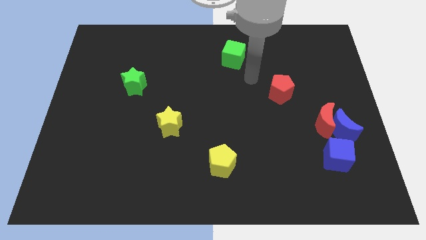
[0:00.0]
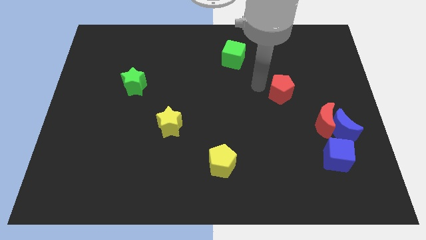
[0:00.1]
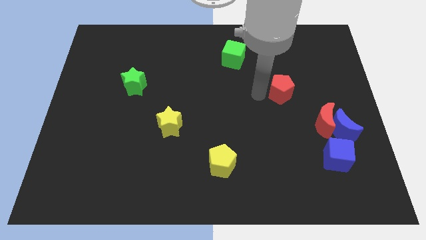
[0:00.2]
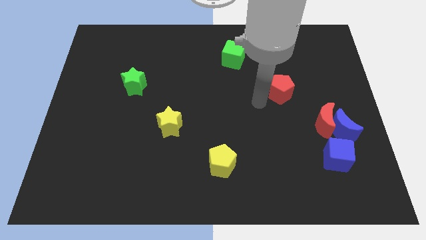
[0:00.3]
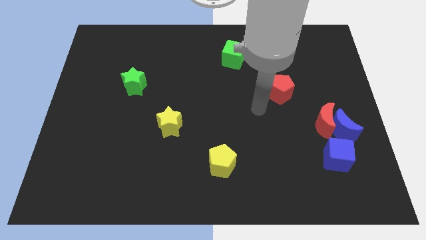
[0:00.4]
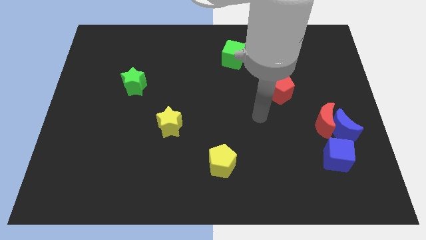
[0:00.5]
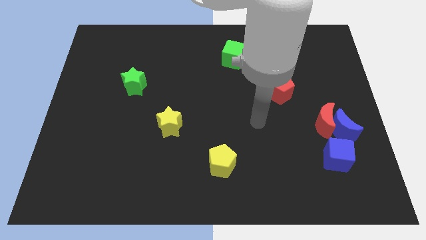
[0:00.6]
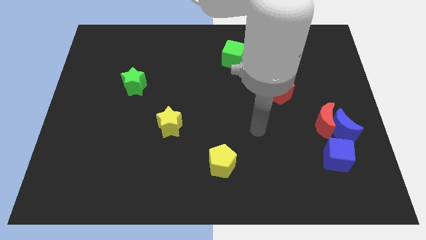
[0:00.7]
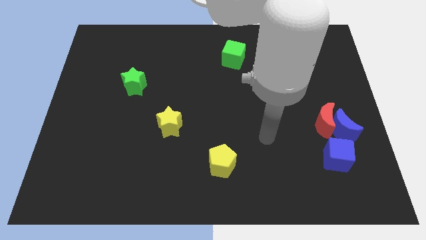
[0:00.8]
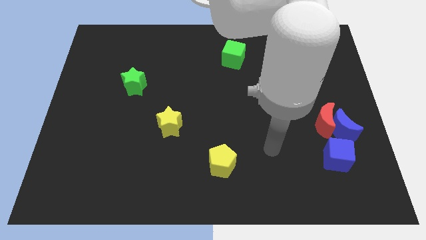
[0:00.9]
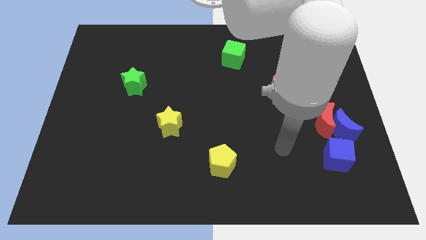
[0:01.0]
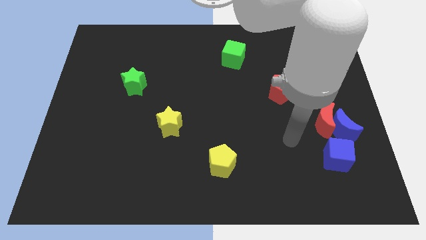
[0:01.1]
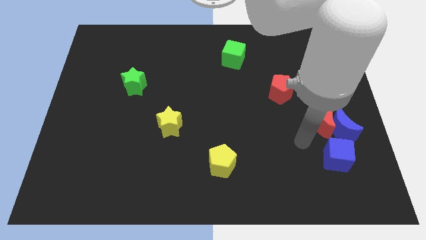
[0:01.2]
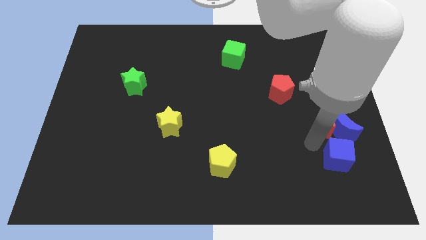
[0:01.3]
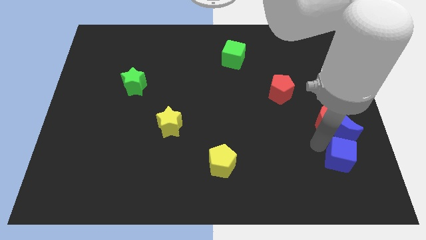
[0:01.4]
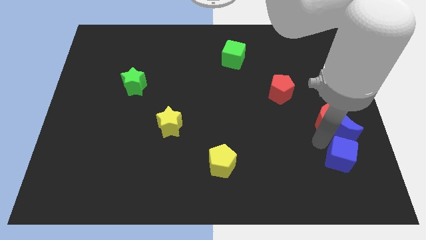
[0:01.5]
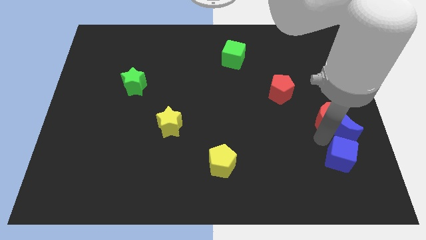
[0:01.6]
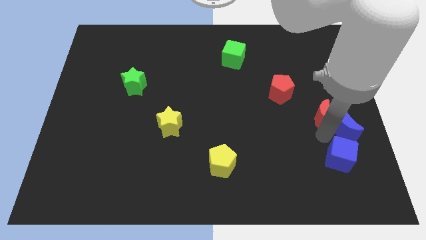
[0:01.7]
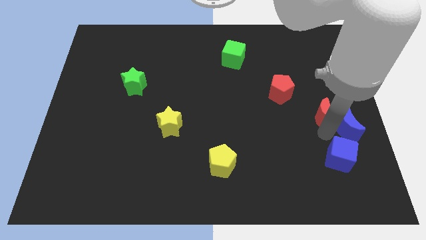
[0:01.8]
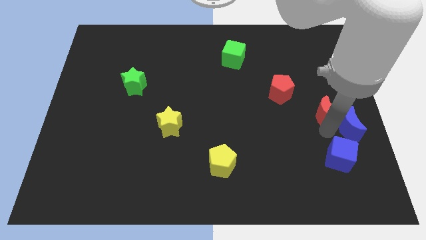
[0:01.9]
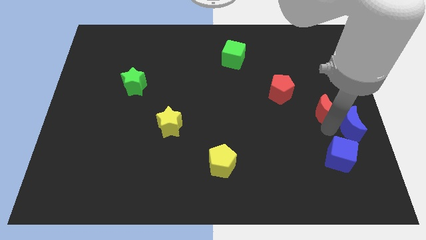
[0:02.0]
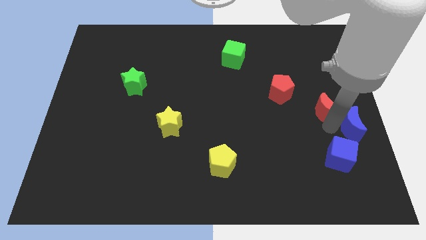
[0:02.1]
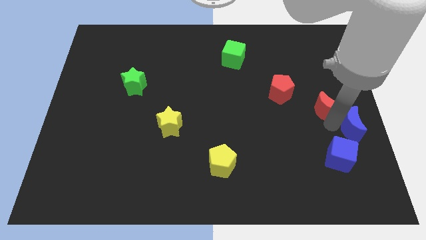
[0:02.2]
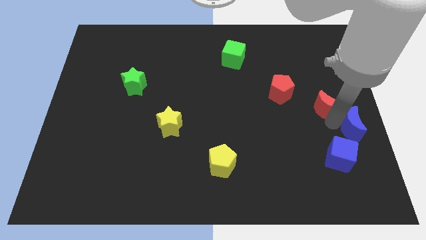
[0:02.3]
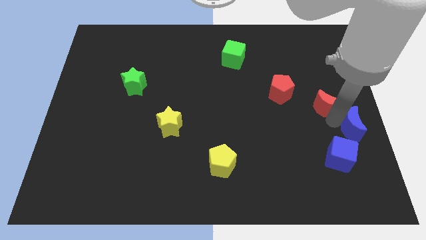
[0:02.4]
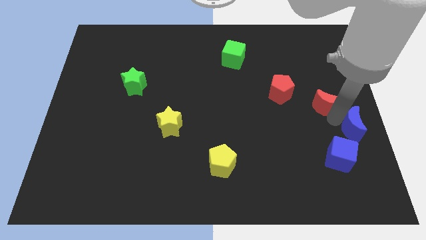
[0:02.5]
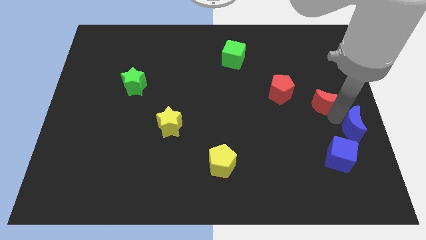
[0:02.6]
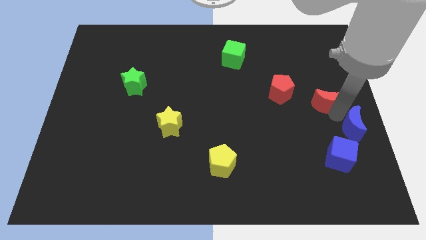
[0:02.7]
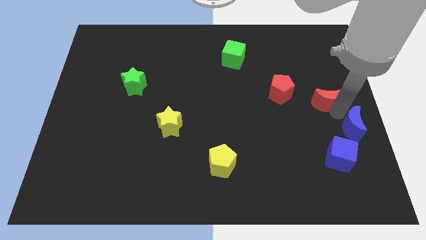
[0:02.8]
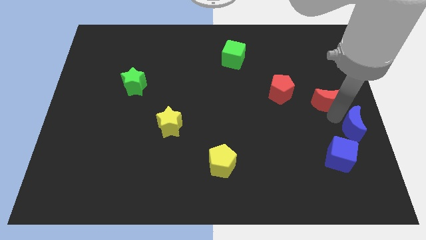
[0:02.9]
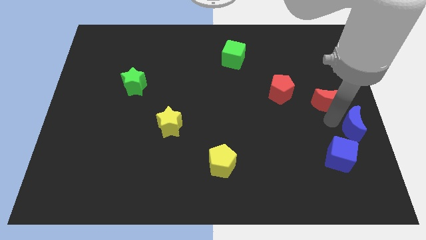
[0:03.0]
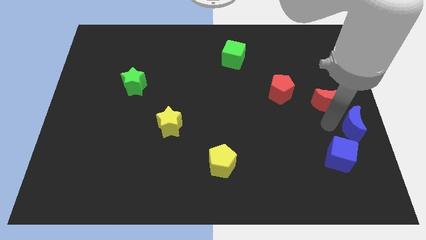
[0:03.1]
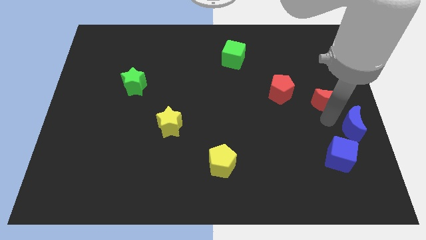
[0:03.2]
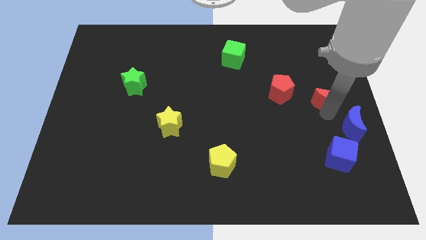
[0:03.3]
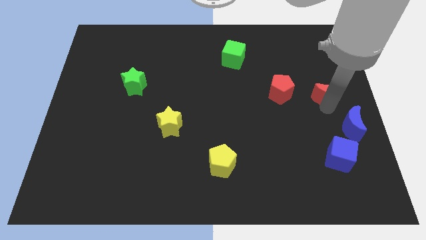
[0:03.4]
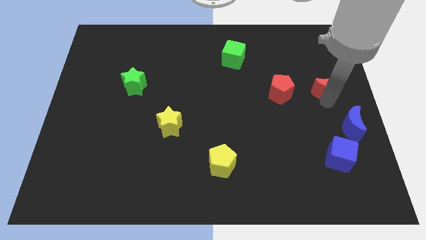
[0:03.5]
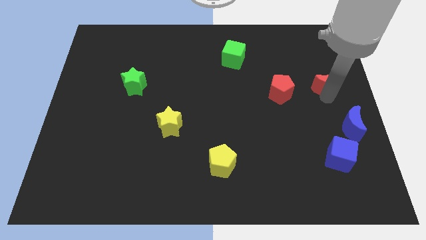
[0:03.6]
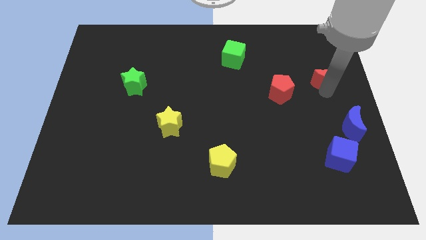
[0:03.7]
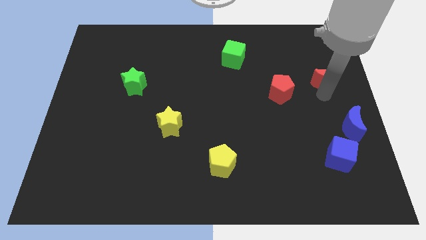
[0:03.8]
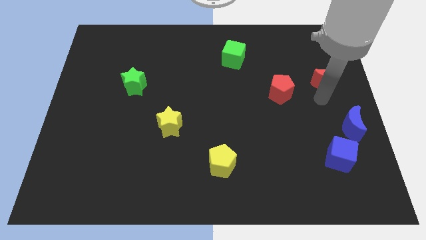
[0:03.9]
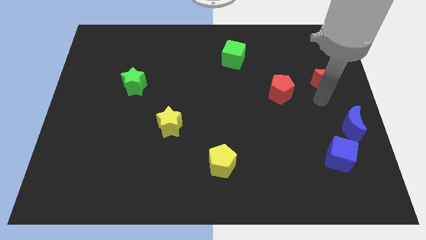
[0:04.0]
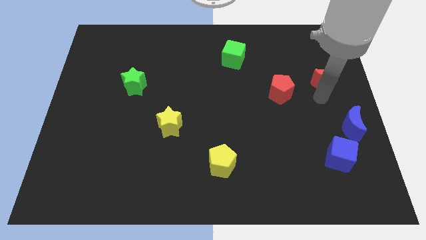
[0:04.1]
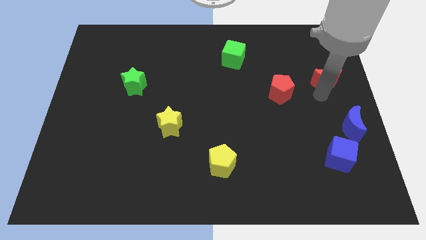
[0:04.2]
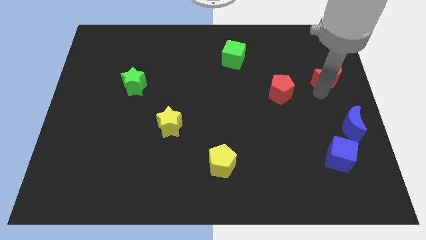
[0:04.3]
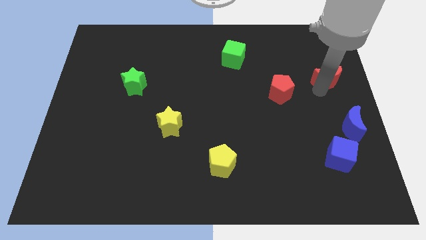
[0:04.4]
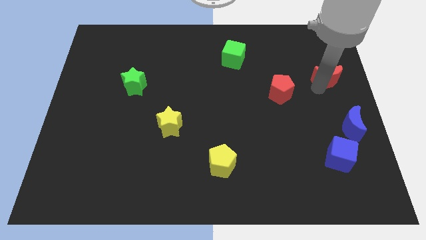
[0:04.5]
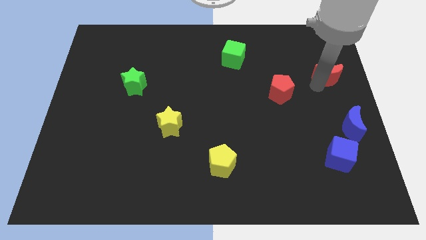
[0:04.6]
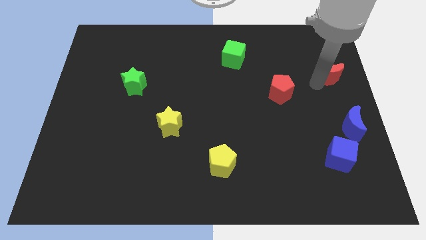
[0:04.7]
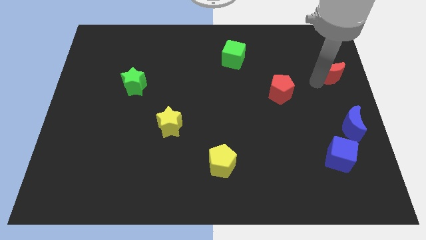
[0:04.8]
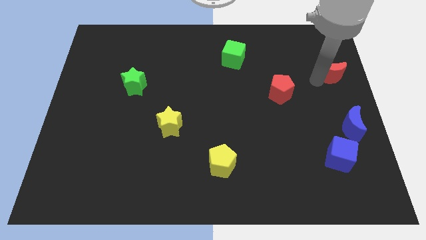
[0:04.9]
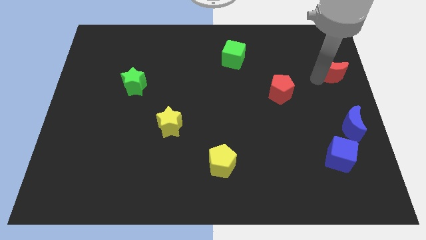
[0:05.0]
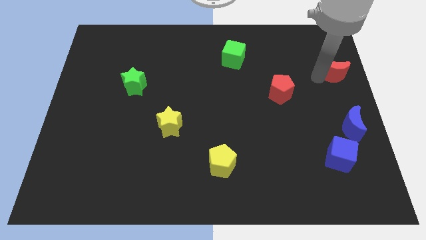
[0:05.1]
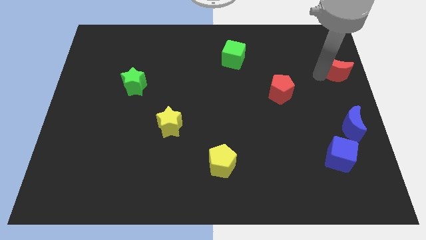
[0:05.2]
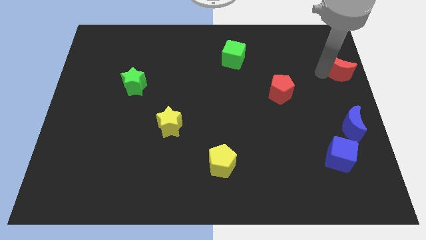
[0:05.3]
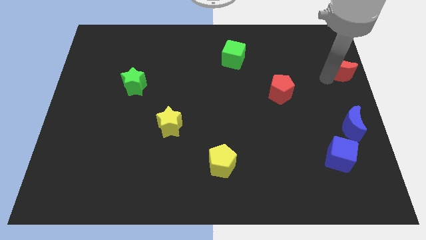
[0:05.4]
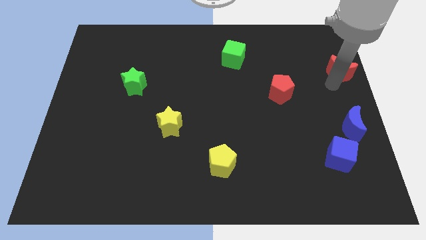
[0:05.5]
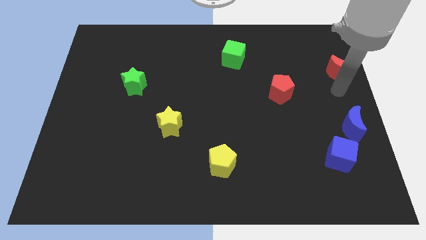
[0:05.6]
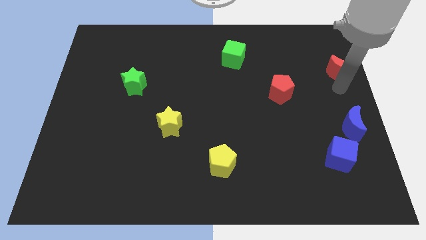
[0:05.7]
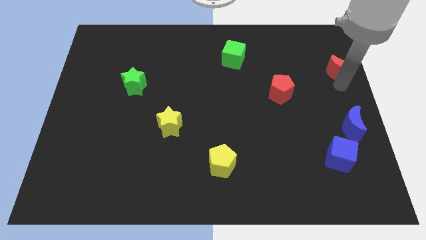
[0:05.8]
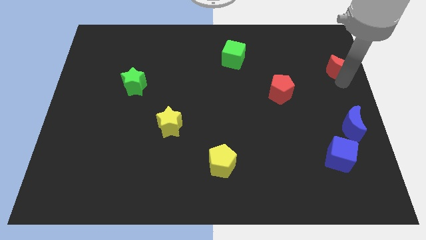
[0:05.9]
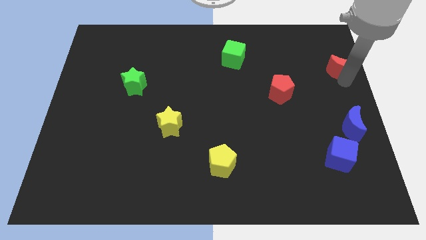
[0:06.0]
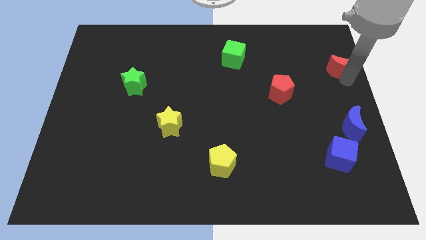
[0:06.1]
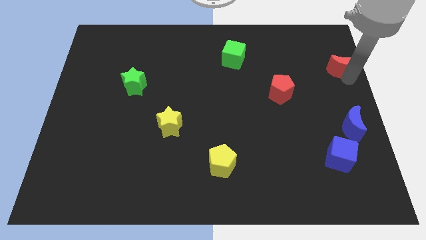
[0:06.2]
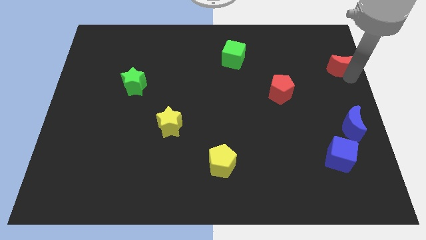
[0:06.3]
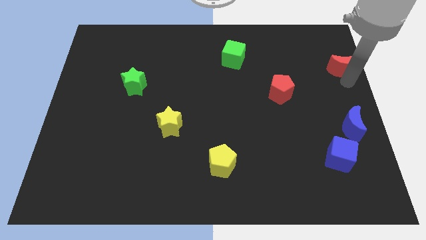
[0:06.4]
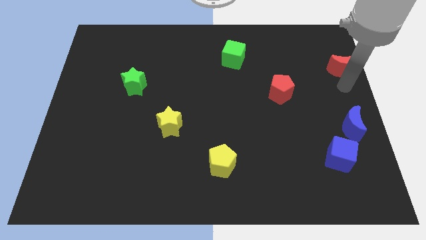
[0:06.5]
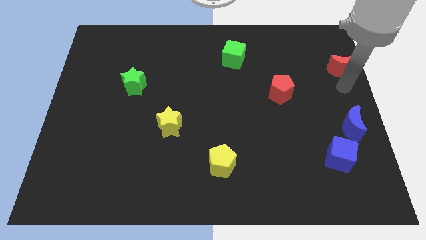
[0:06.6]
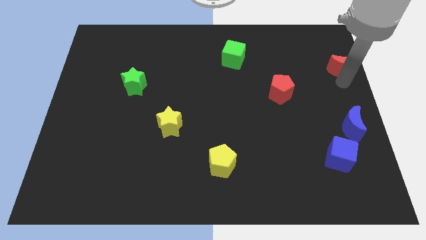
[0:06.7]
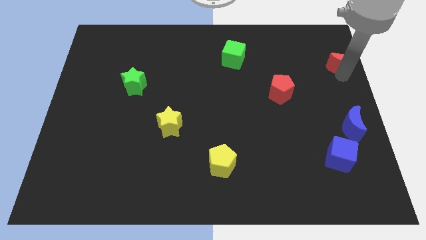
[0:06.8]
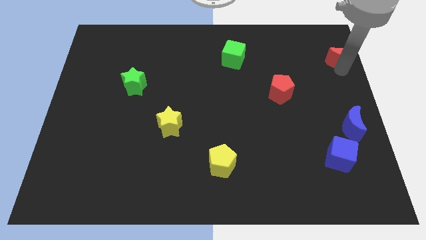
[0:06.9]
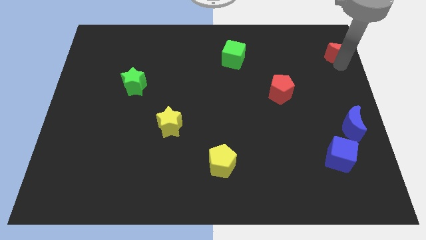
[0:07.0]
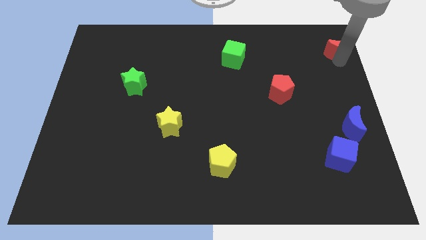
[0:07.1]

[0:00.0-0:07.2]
move the red moon to the top right corner
